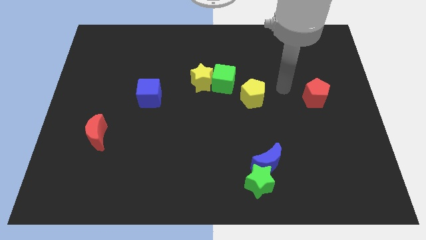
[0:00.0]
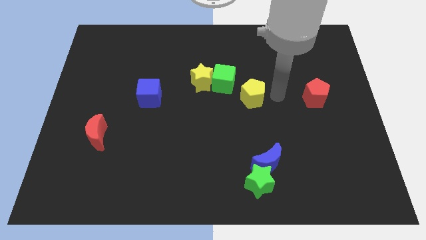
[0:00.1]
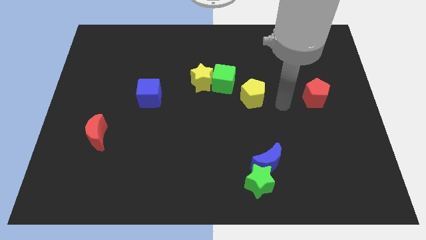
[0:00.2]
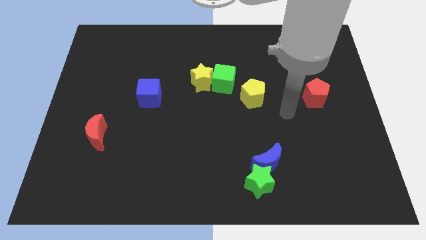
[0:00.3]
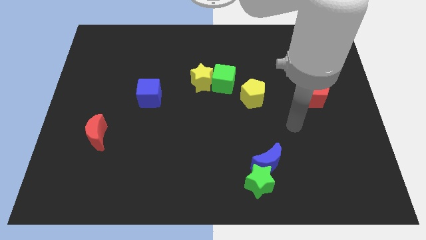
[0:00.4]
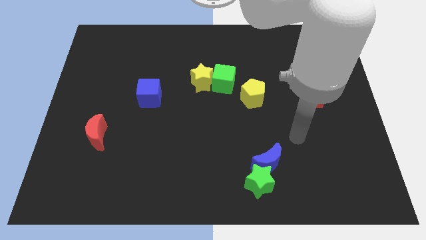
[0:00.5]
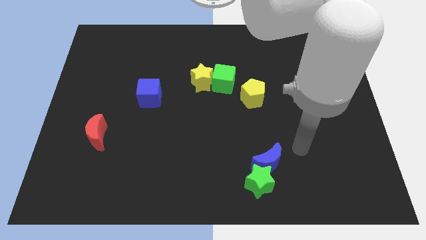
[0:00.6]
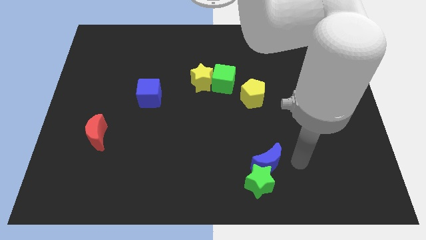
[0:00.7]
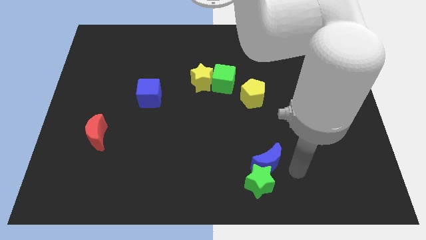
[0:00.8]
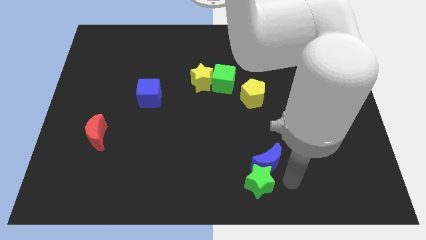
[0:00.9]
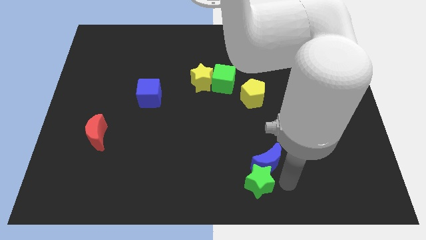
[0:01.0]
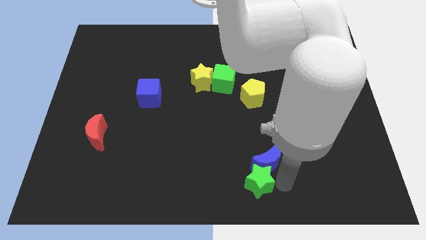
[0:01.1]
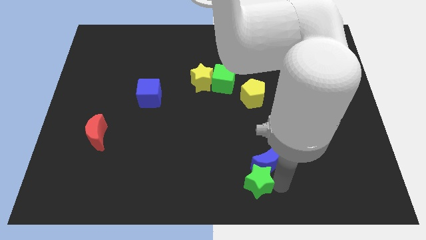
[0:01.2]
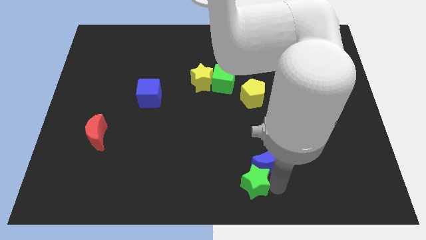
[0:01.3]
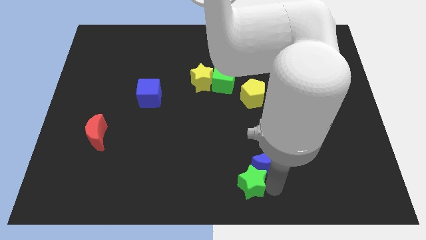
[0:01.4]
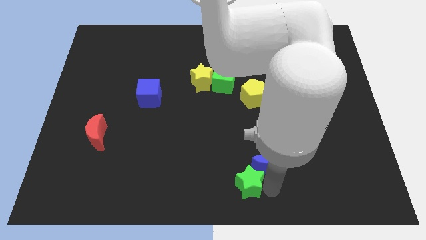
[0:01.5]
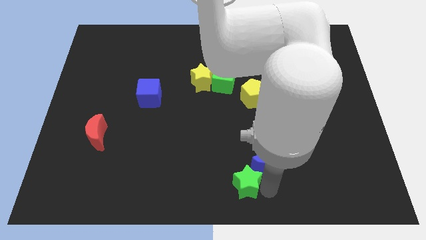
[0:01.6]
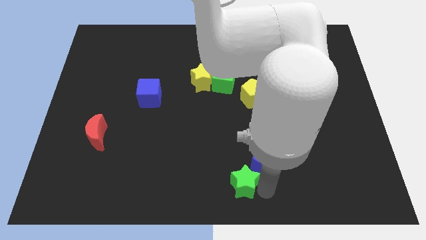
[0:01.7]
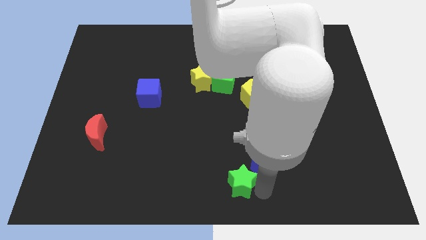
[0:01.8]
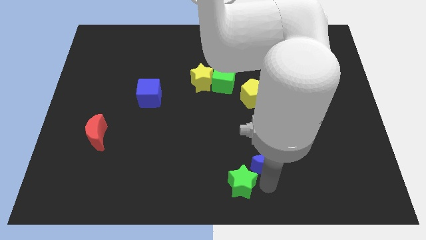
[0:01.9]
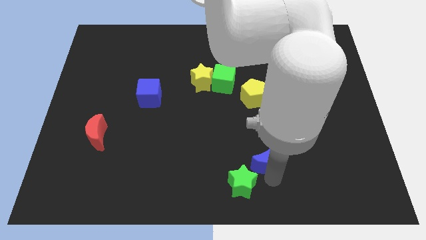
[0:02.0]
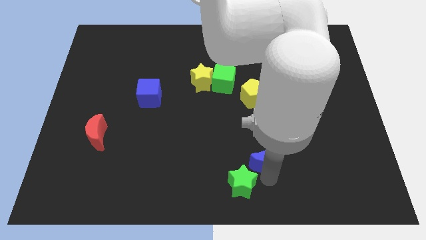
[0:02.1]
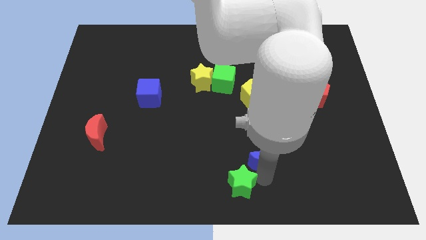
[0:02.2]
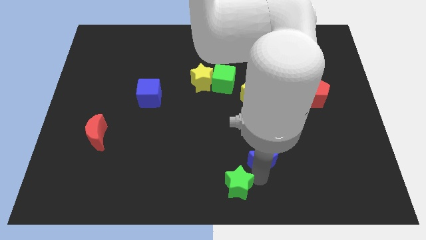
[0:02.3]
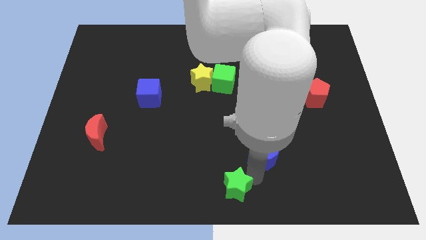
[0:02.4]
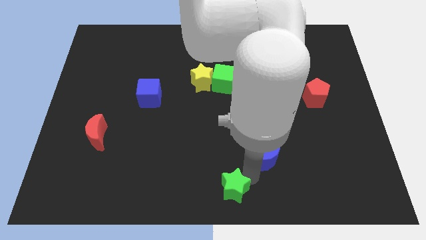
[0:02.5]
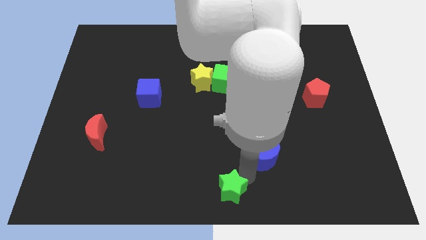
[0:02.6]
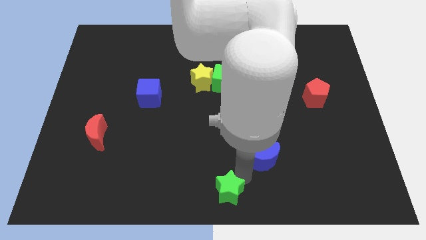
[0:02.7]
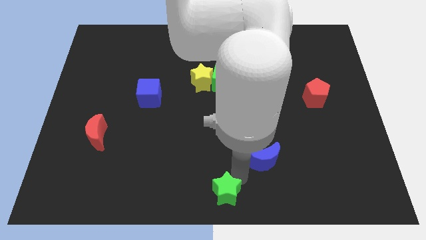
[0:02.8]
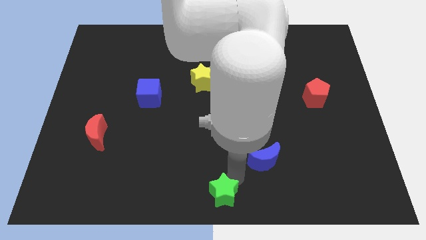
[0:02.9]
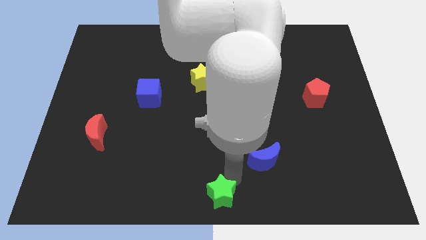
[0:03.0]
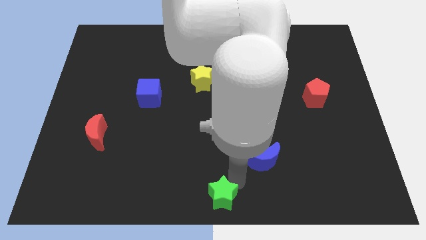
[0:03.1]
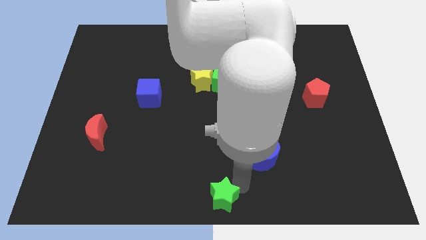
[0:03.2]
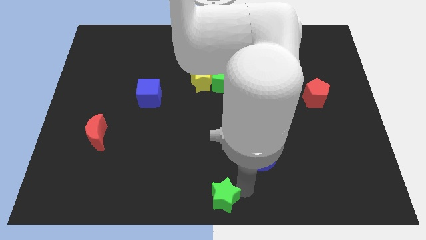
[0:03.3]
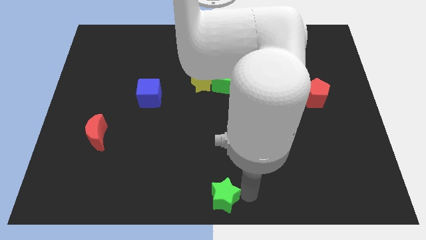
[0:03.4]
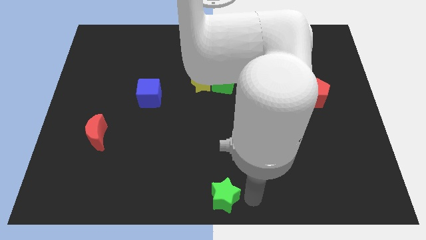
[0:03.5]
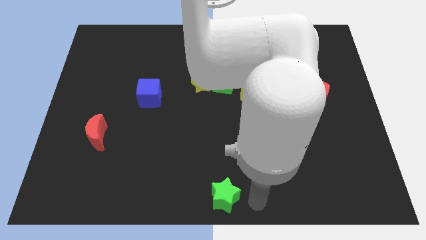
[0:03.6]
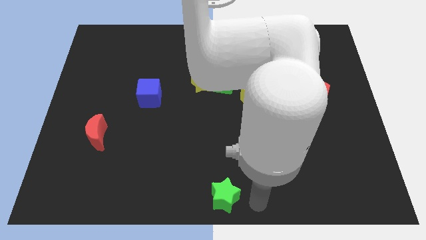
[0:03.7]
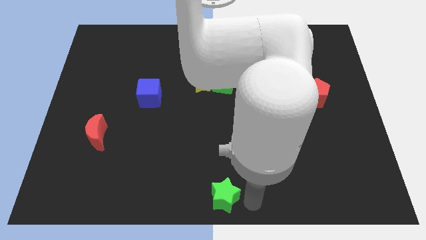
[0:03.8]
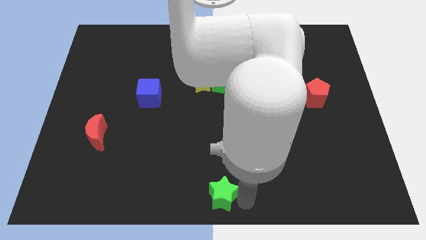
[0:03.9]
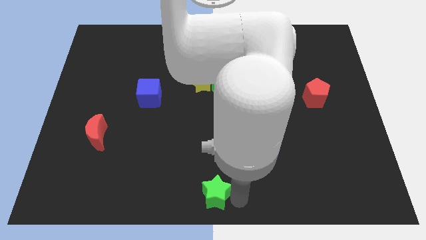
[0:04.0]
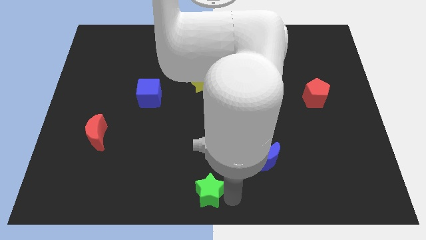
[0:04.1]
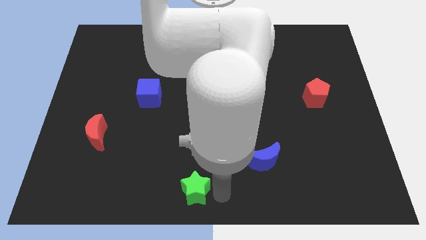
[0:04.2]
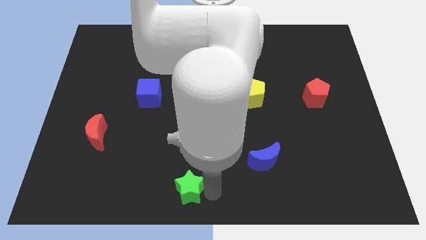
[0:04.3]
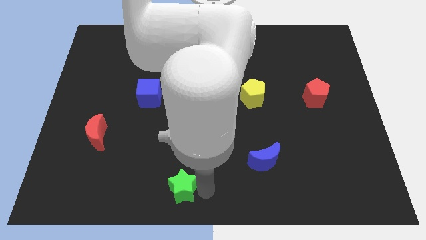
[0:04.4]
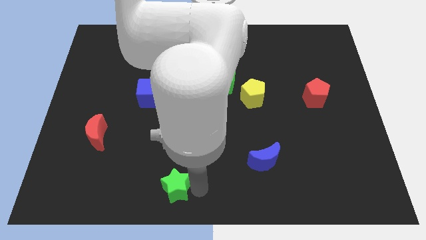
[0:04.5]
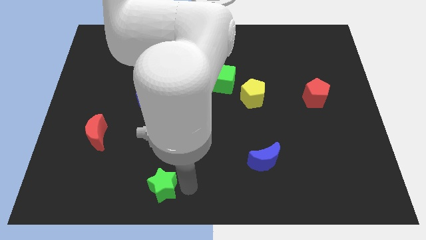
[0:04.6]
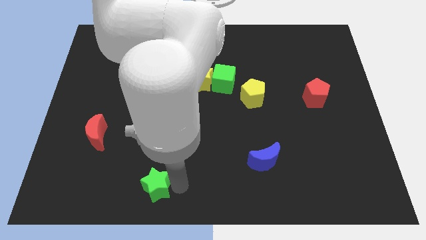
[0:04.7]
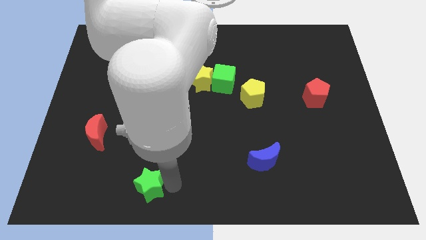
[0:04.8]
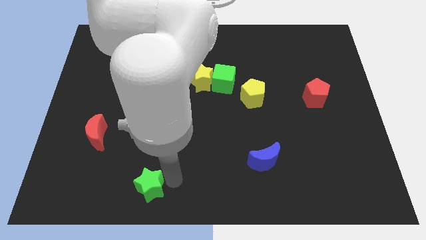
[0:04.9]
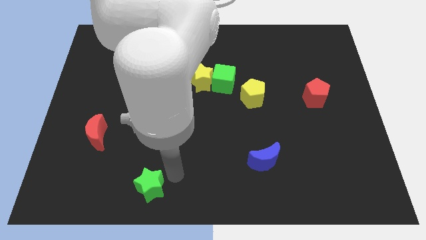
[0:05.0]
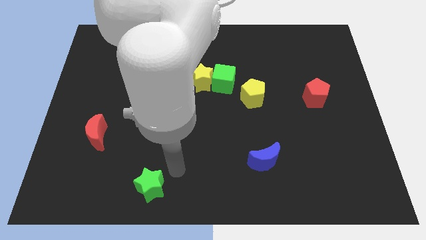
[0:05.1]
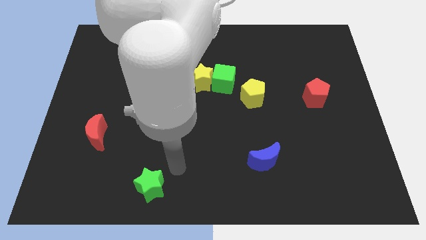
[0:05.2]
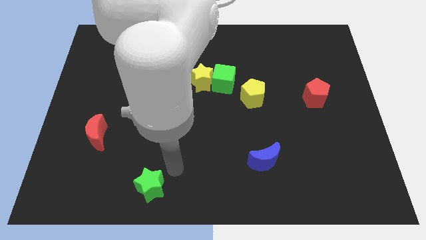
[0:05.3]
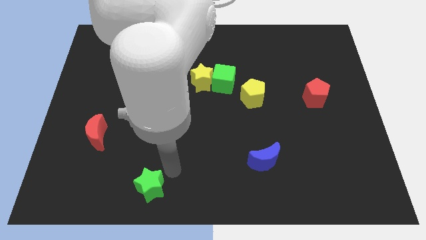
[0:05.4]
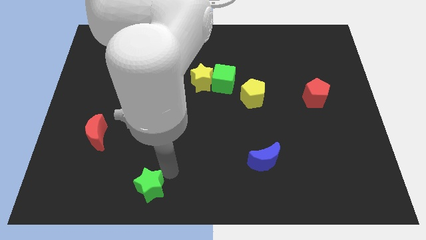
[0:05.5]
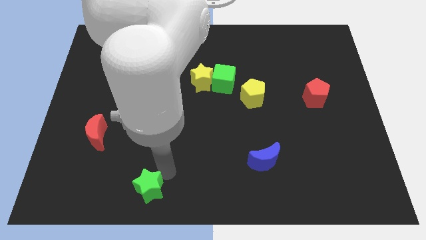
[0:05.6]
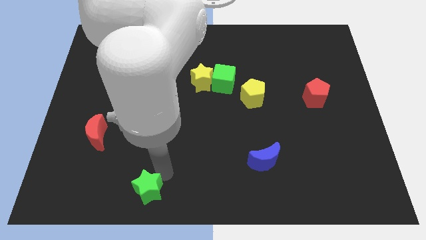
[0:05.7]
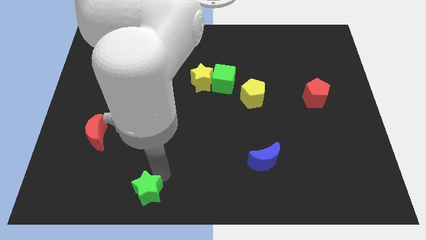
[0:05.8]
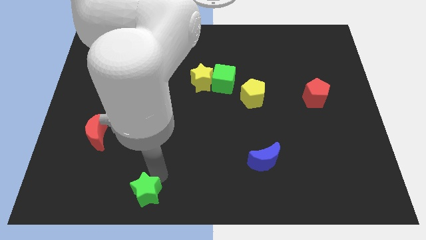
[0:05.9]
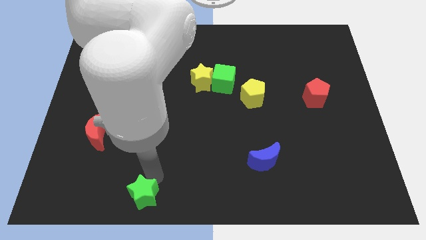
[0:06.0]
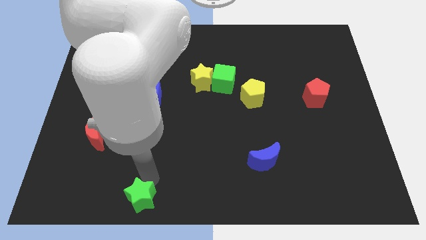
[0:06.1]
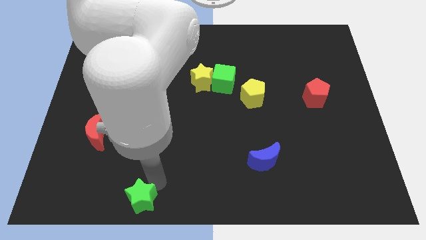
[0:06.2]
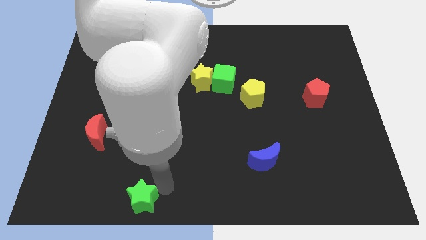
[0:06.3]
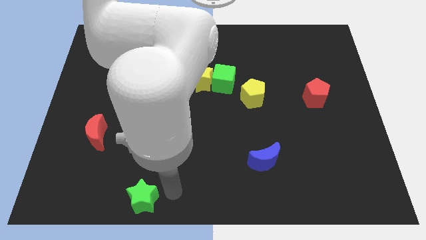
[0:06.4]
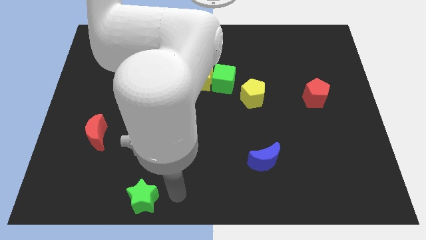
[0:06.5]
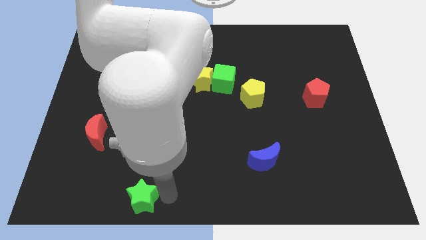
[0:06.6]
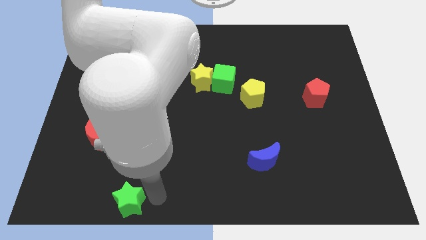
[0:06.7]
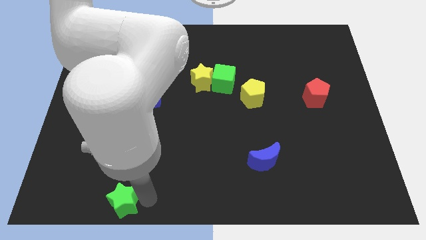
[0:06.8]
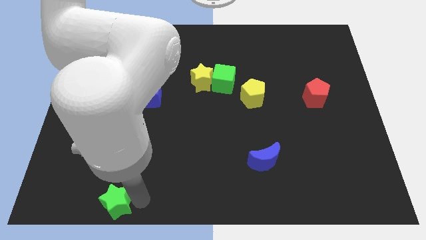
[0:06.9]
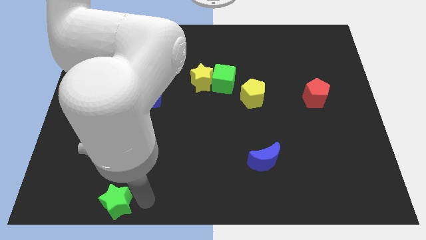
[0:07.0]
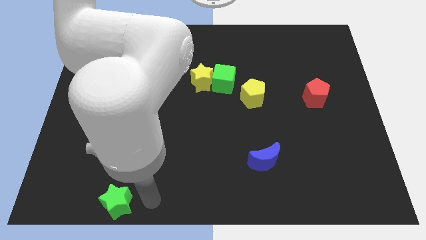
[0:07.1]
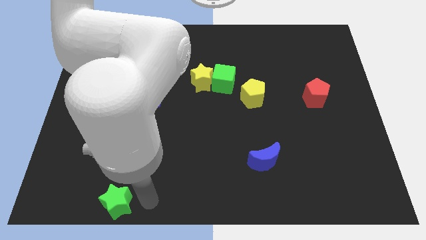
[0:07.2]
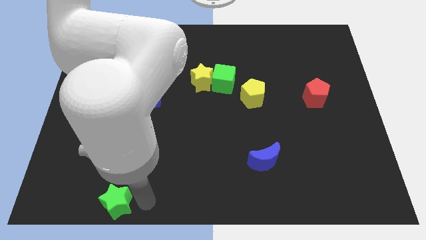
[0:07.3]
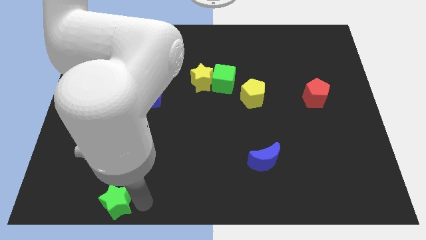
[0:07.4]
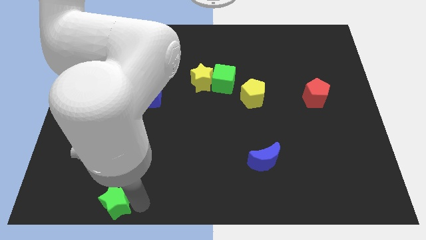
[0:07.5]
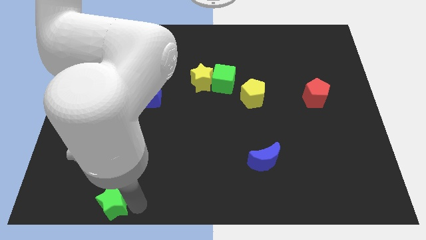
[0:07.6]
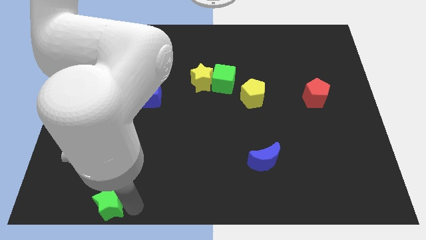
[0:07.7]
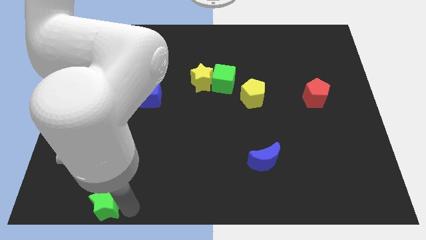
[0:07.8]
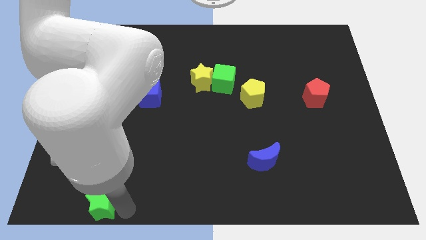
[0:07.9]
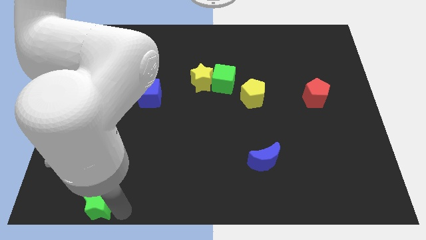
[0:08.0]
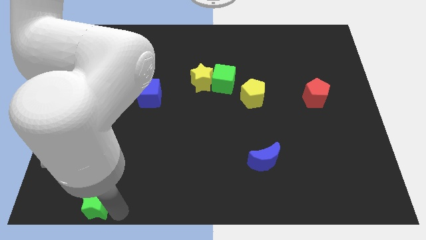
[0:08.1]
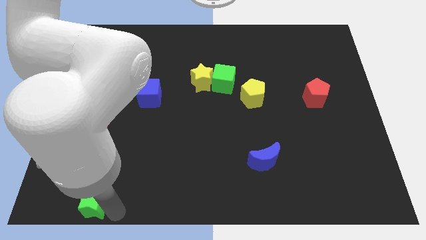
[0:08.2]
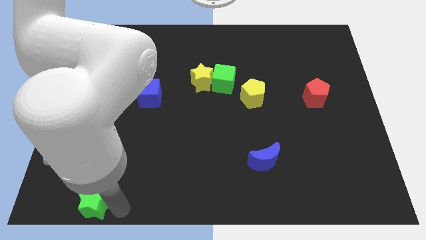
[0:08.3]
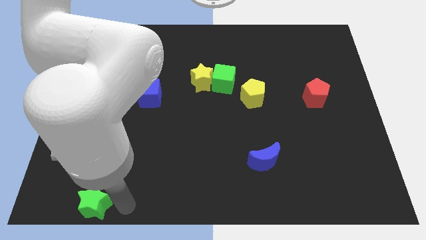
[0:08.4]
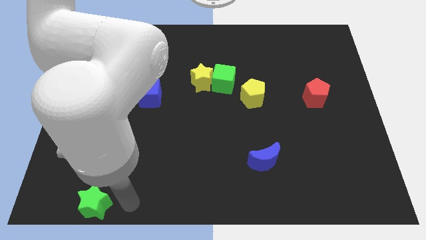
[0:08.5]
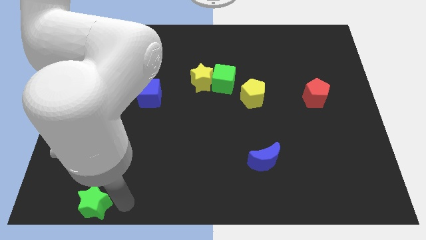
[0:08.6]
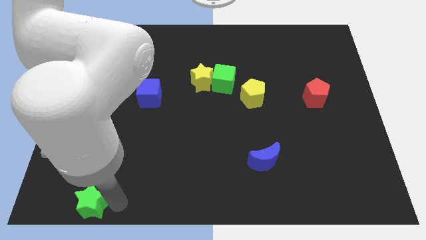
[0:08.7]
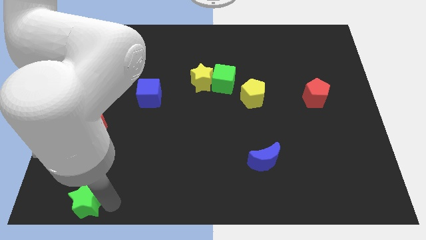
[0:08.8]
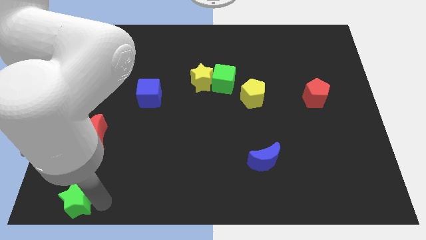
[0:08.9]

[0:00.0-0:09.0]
move the green star to the bottom left corner
